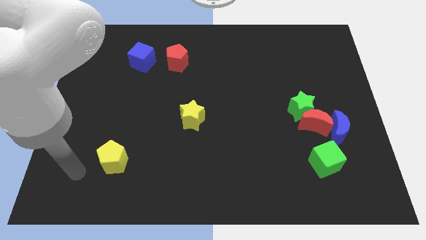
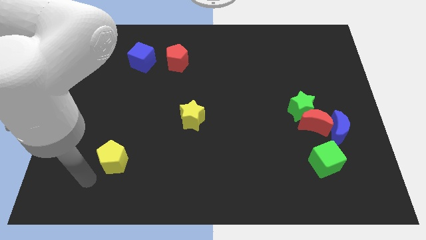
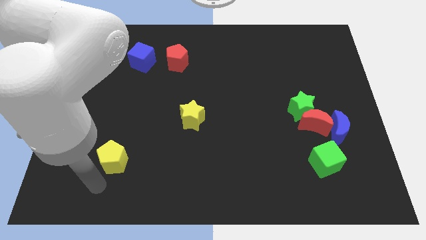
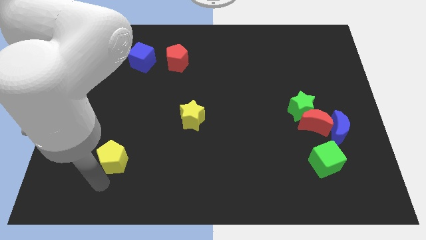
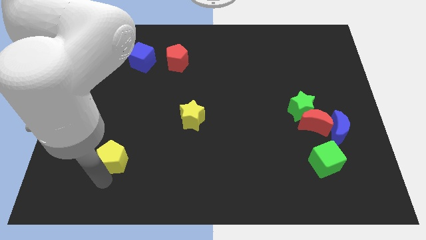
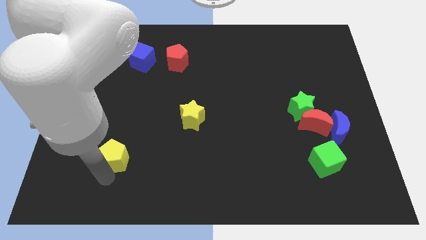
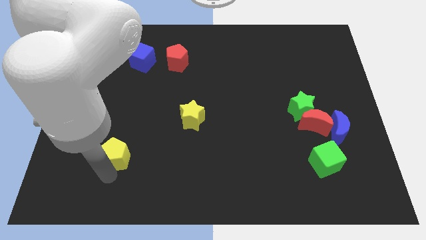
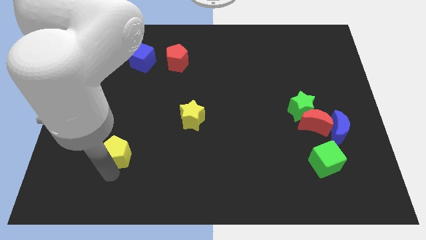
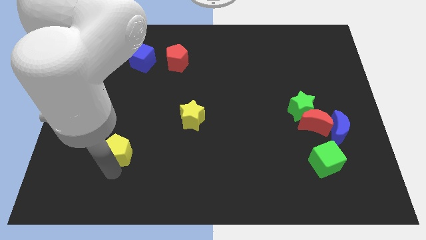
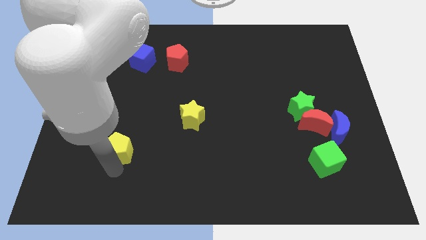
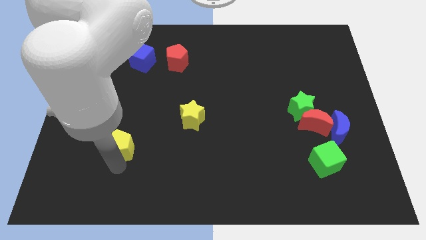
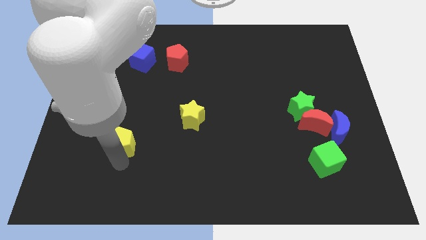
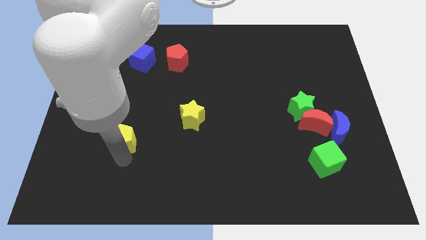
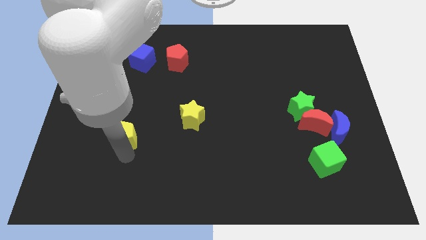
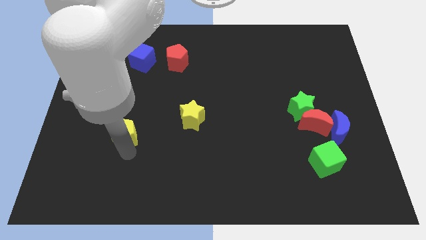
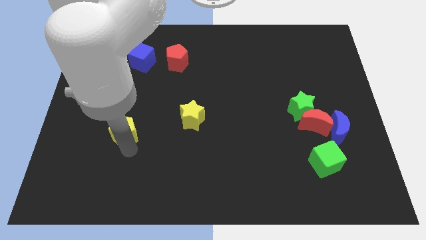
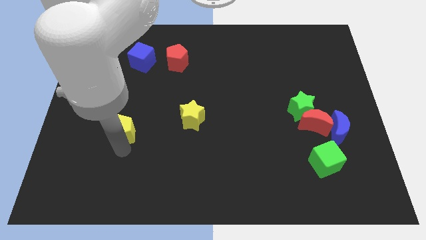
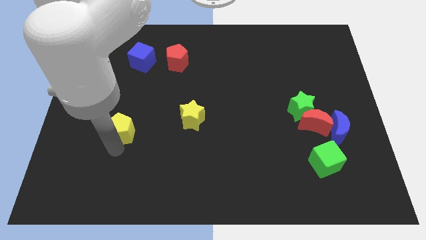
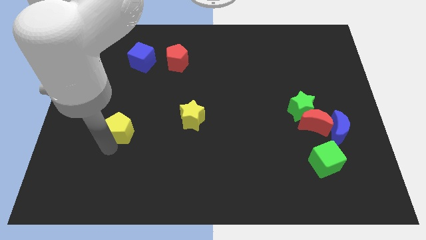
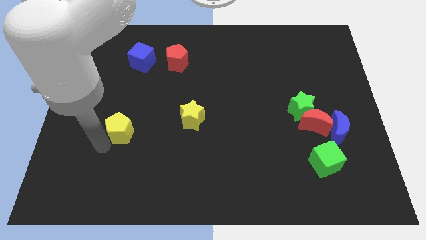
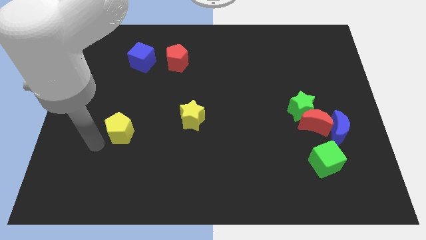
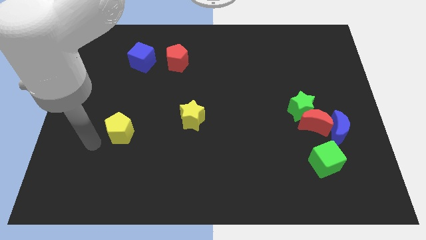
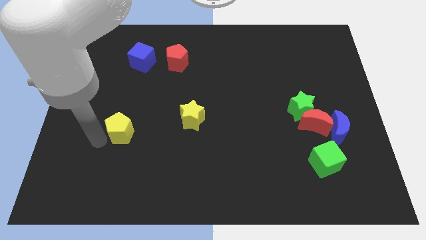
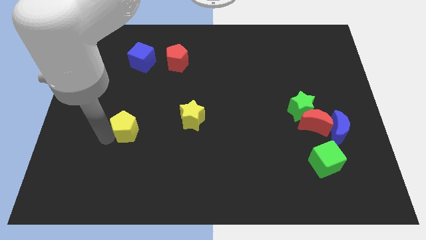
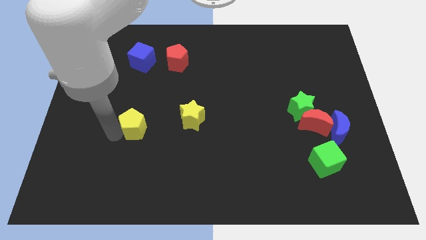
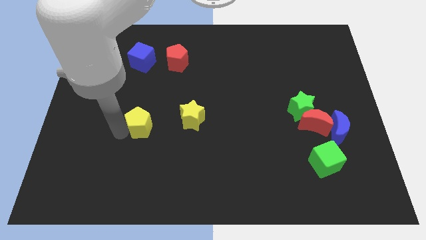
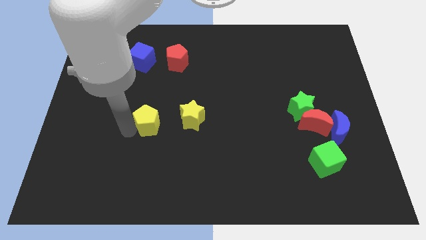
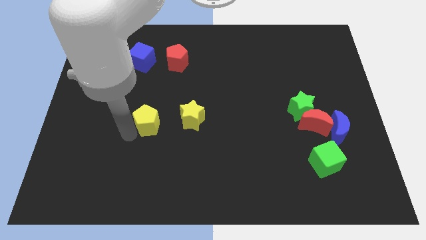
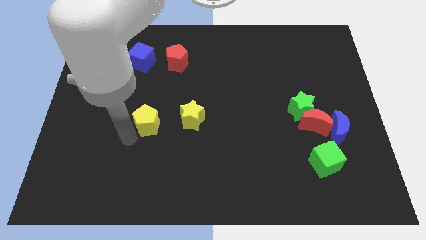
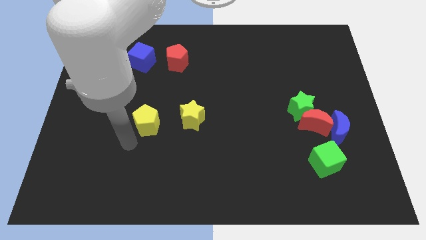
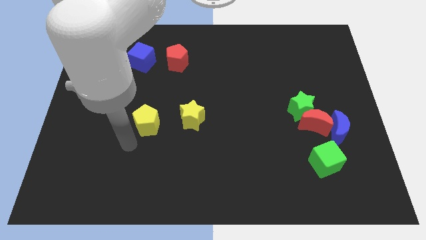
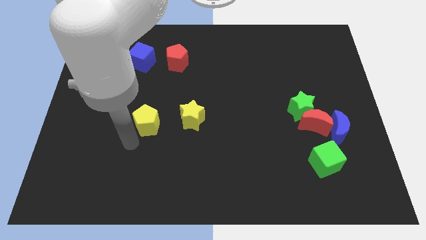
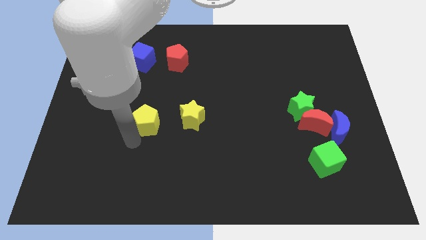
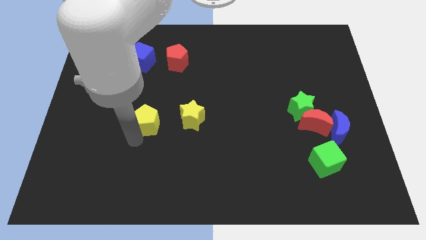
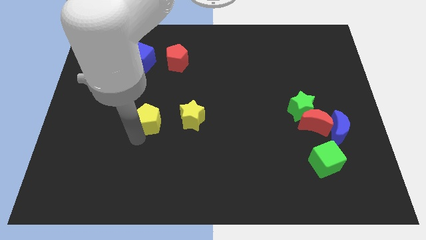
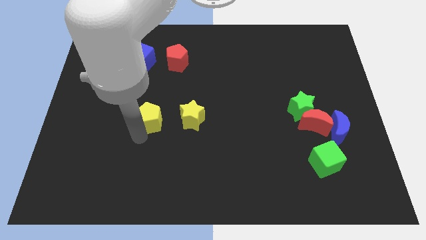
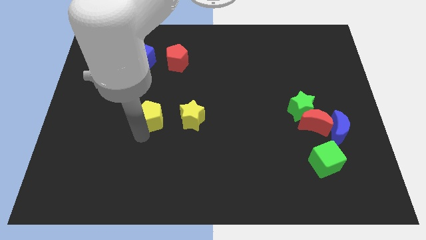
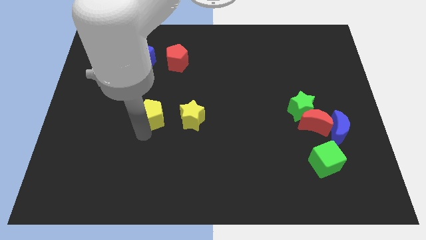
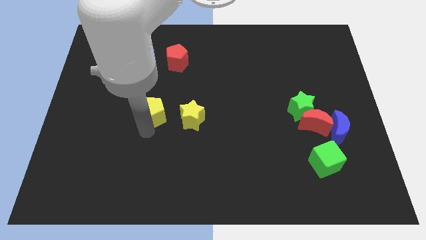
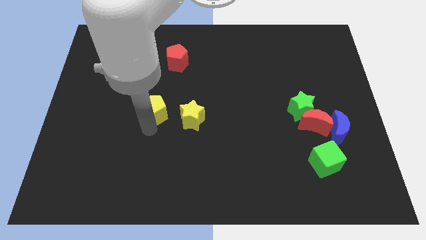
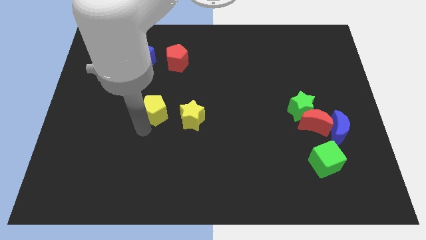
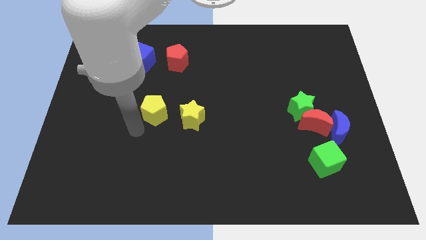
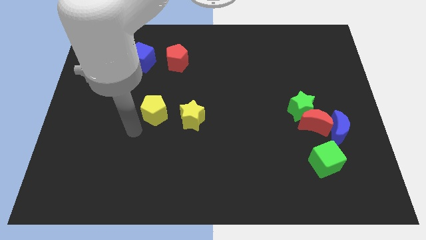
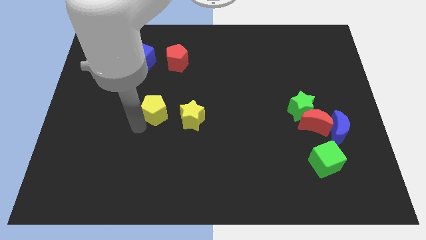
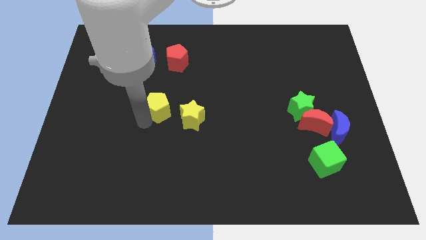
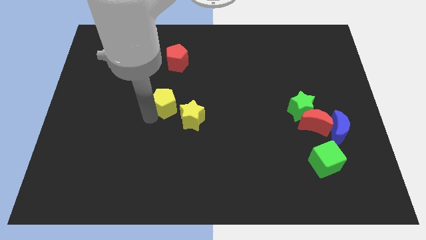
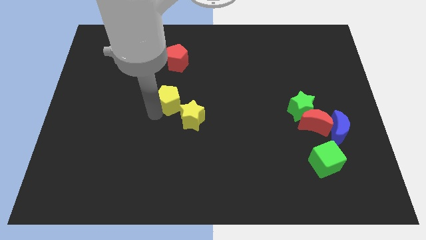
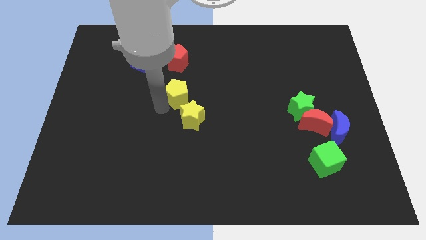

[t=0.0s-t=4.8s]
slide the yellow pentagon up and then right

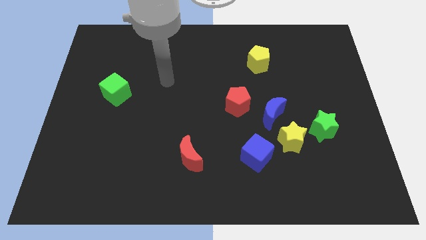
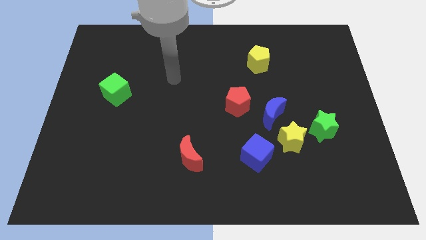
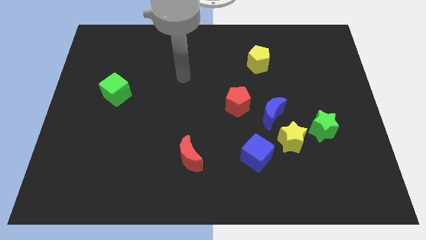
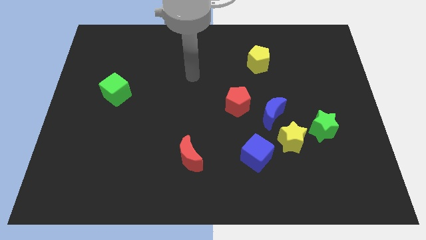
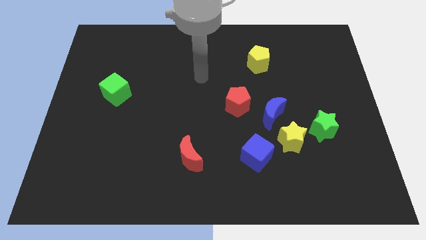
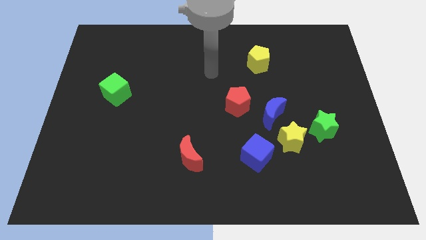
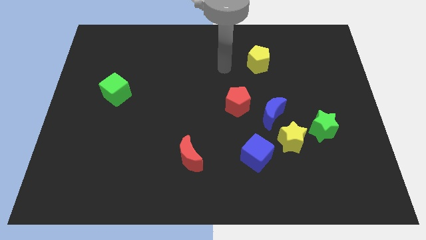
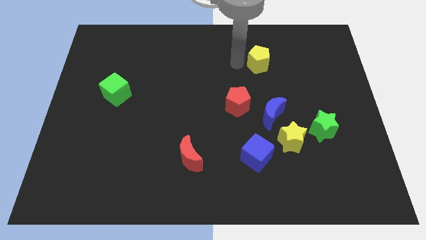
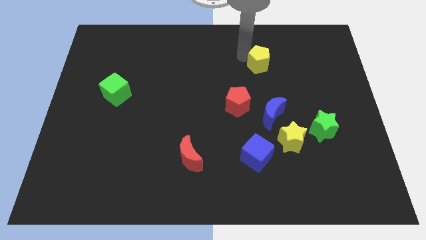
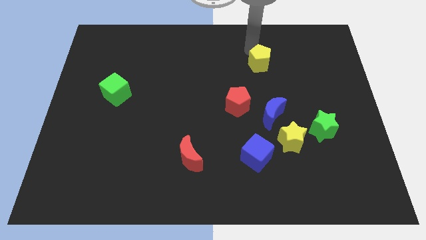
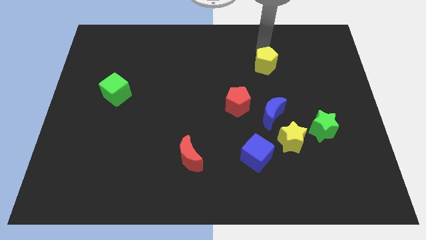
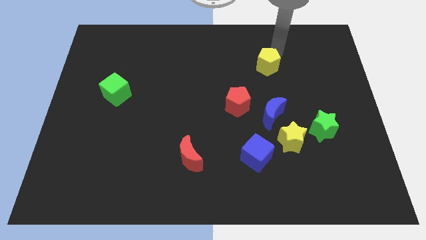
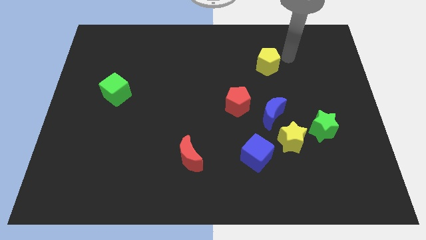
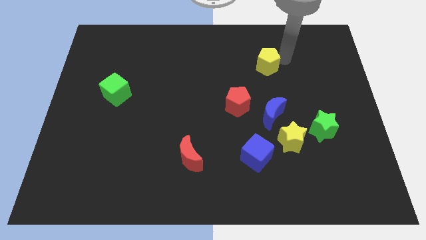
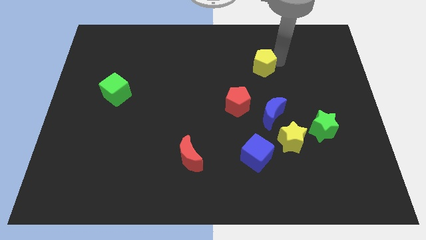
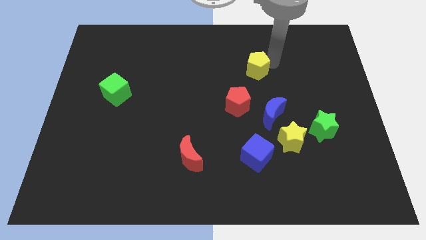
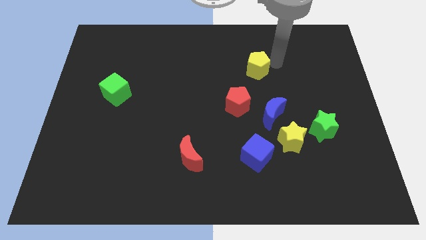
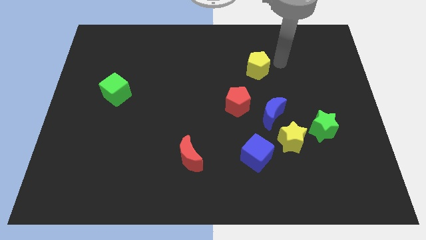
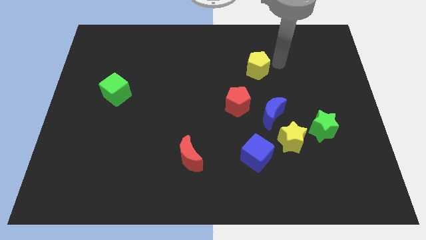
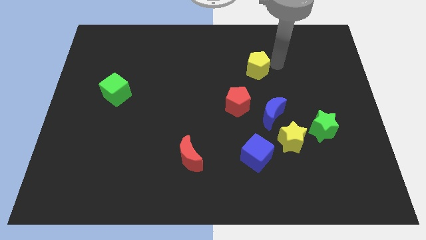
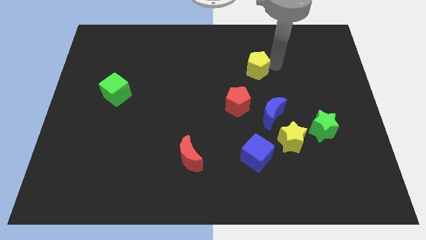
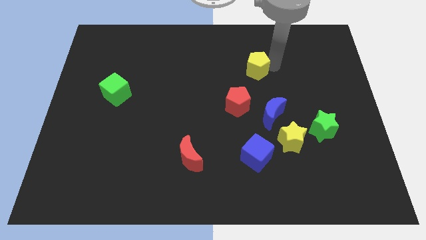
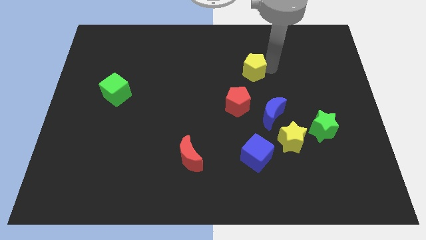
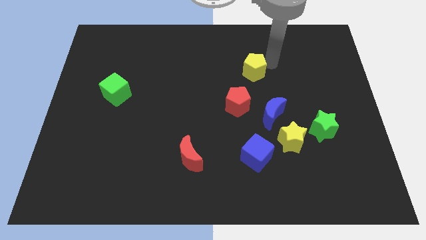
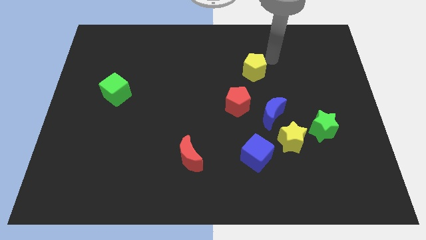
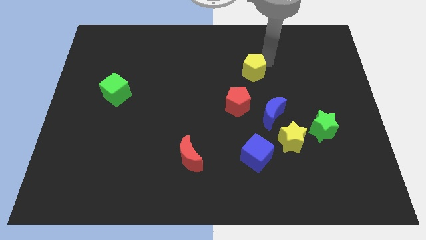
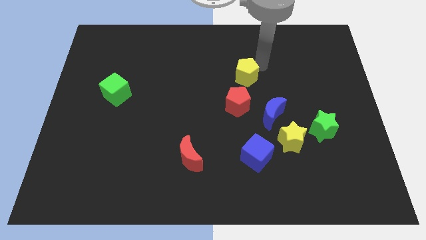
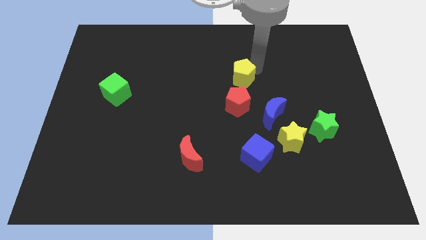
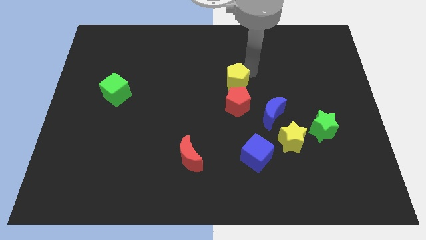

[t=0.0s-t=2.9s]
slightly move the yellow pentagon diagonally down and left

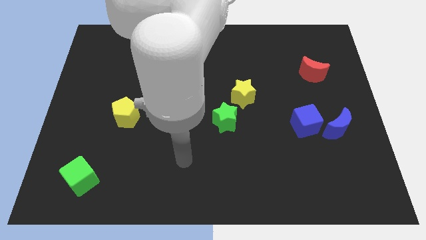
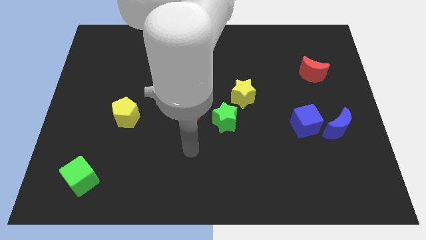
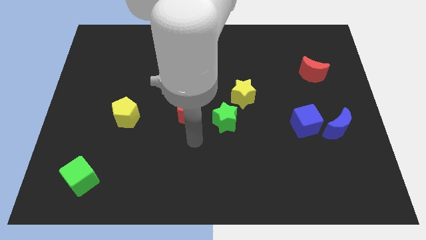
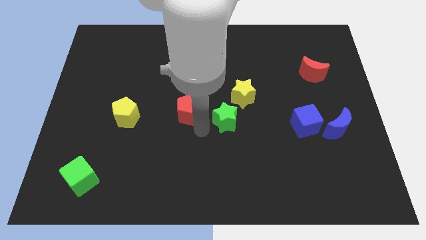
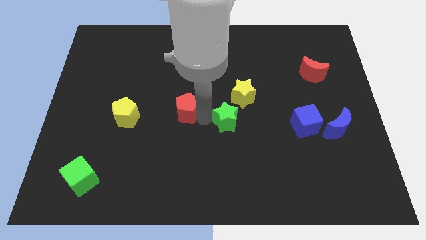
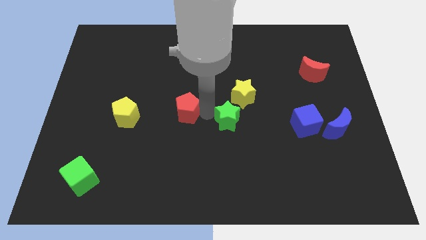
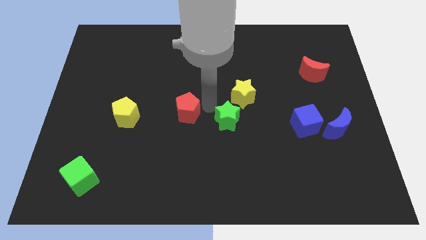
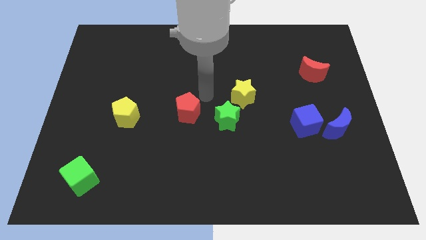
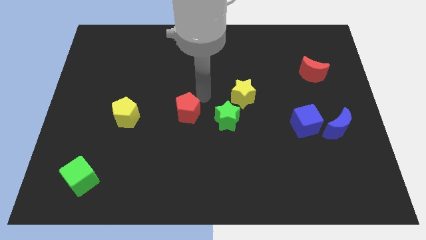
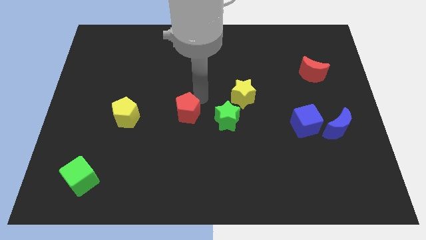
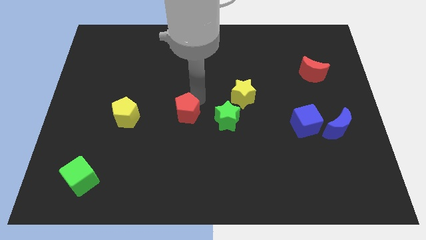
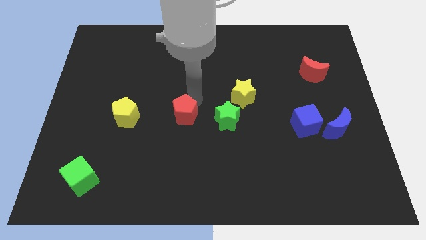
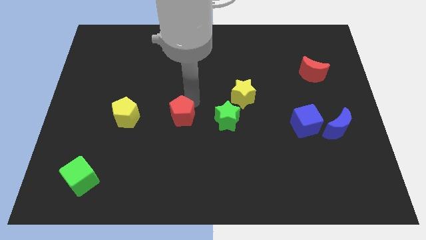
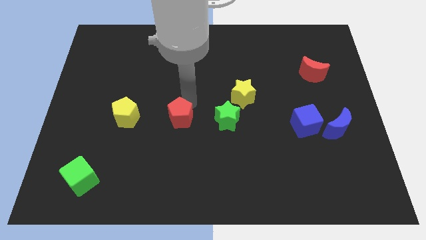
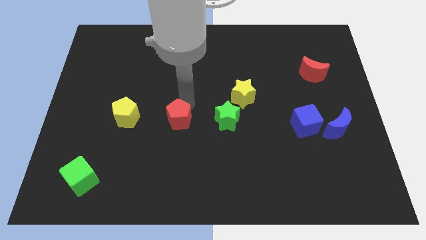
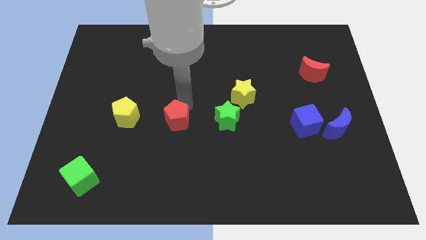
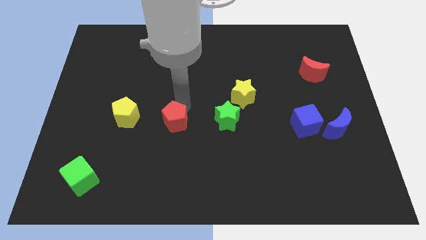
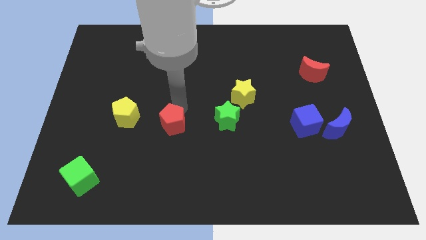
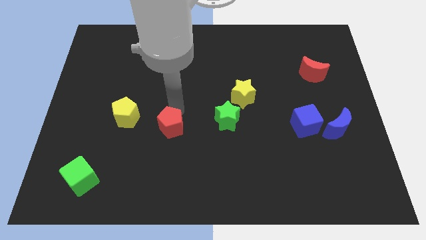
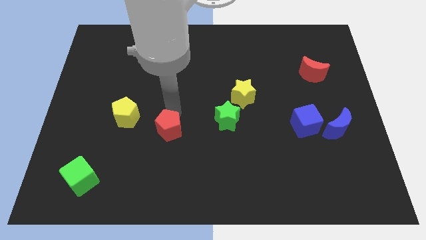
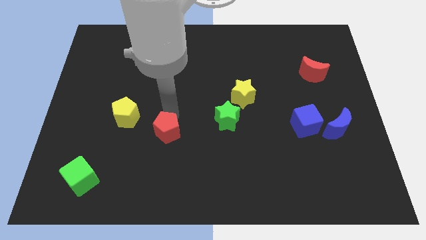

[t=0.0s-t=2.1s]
slide the red pentagon down and then left a little
